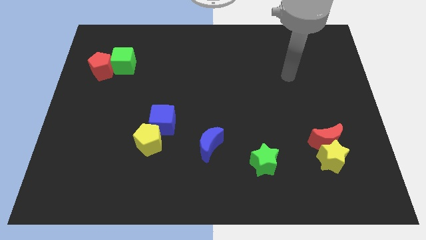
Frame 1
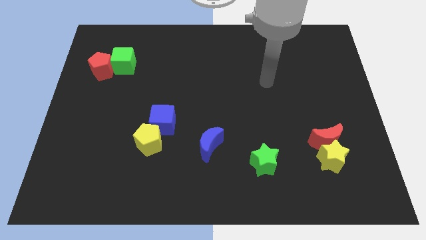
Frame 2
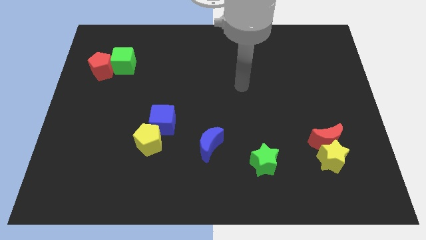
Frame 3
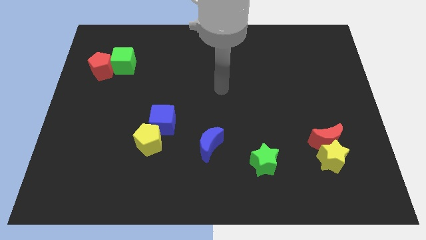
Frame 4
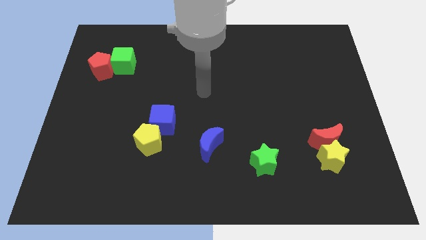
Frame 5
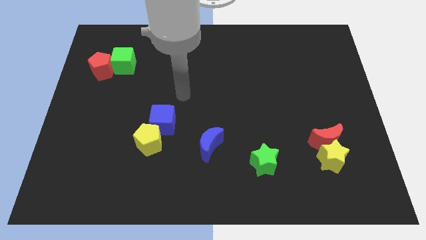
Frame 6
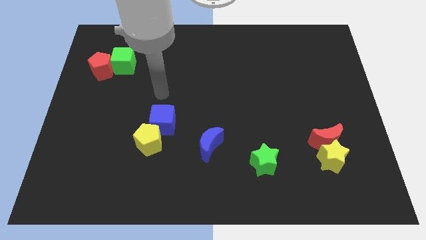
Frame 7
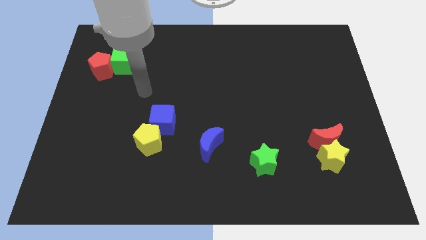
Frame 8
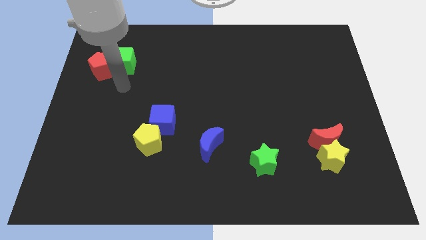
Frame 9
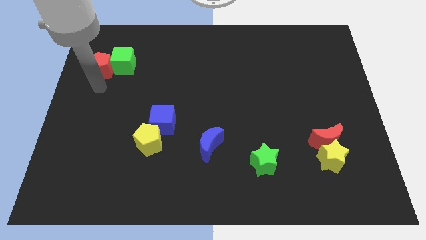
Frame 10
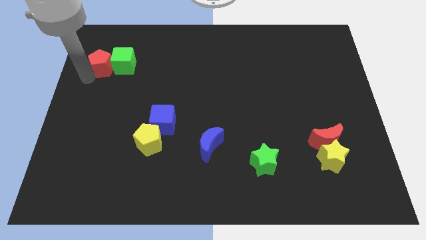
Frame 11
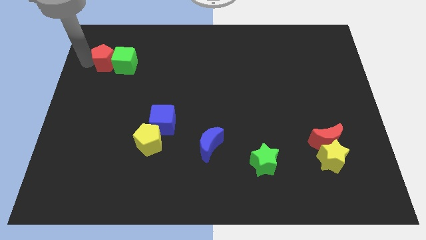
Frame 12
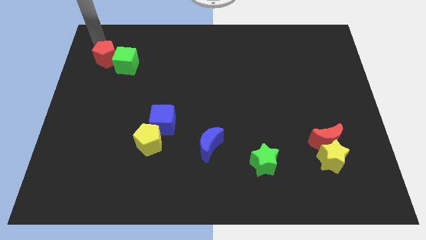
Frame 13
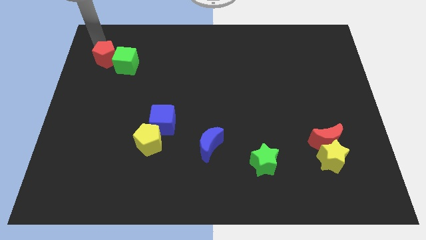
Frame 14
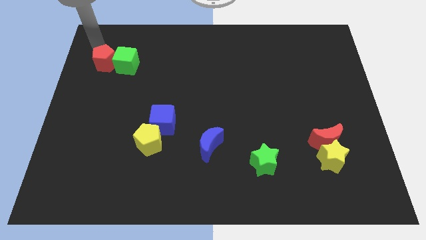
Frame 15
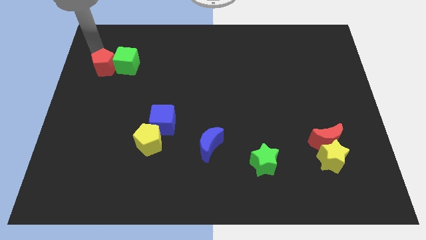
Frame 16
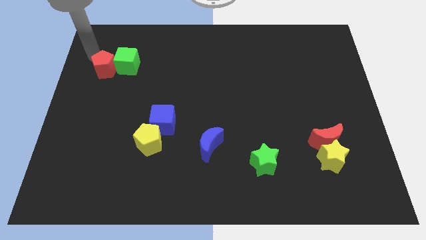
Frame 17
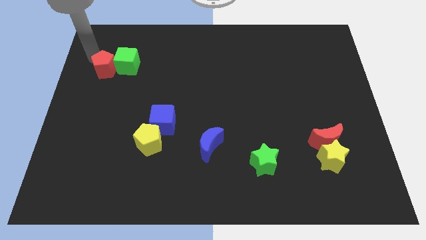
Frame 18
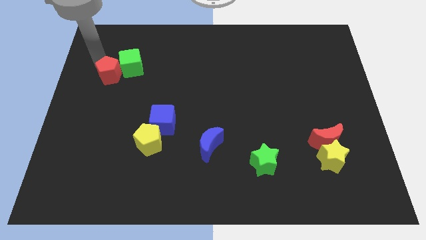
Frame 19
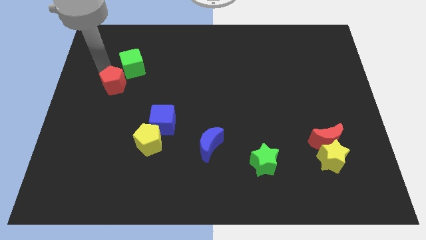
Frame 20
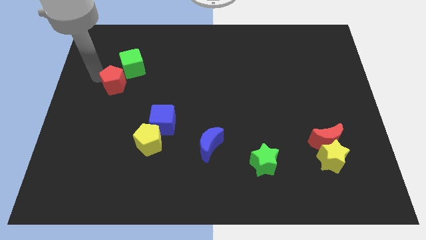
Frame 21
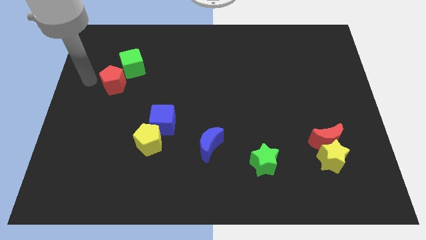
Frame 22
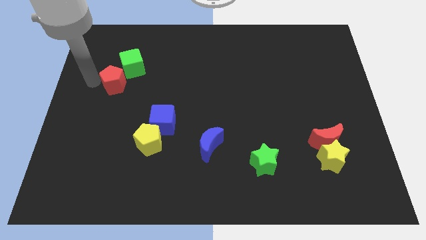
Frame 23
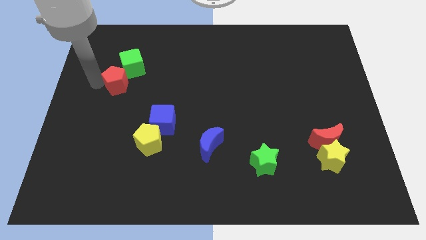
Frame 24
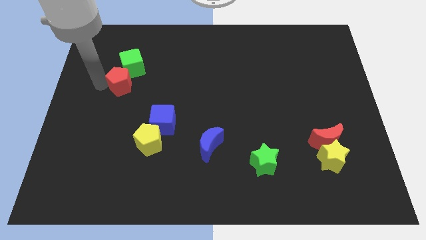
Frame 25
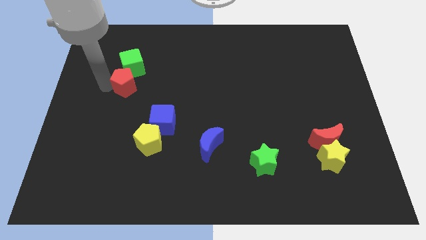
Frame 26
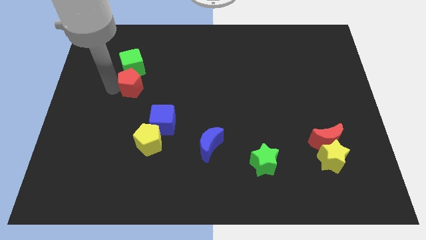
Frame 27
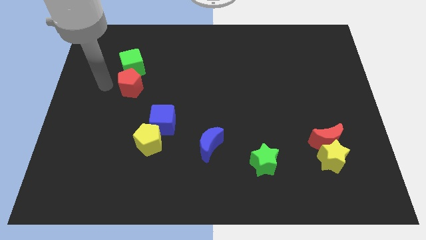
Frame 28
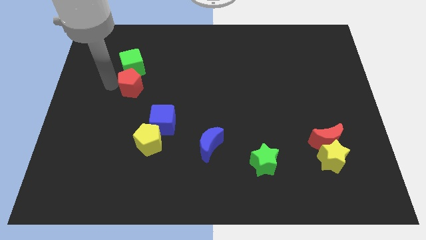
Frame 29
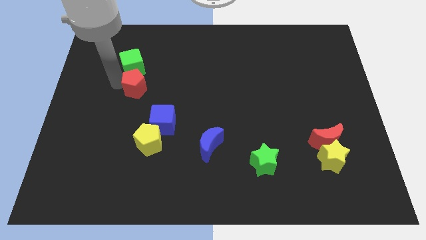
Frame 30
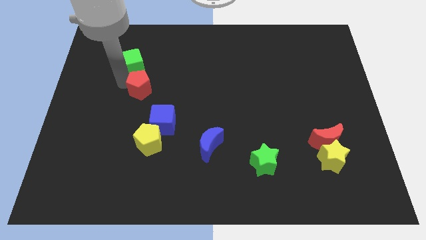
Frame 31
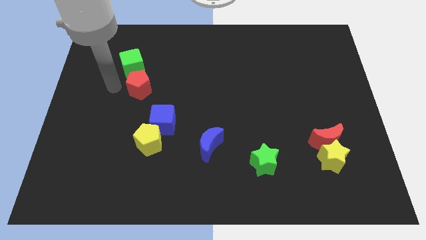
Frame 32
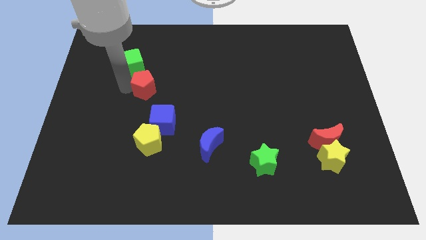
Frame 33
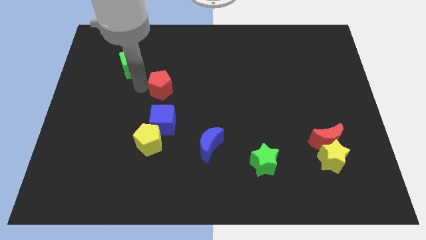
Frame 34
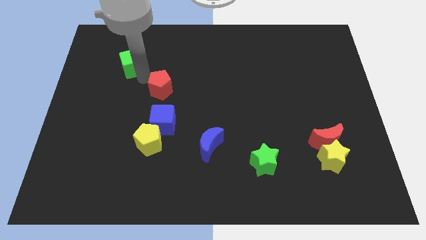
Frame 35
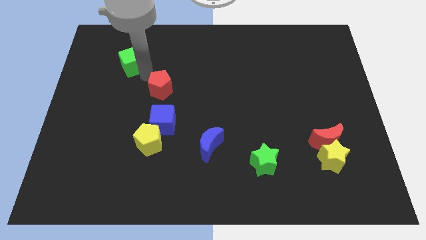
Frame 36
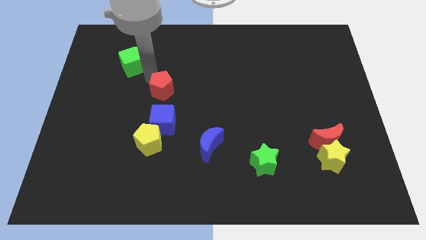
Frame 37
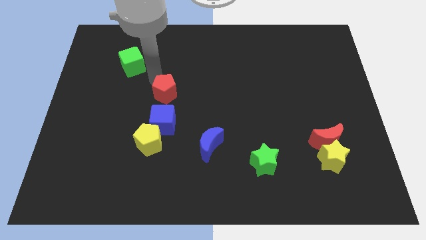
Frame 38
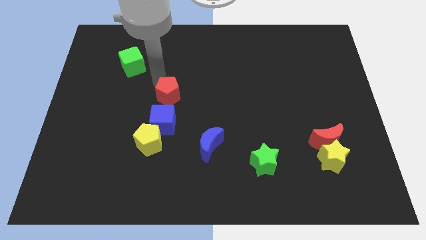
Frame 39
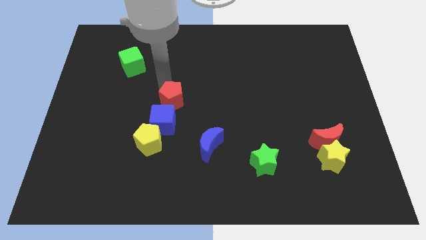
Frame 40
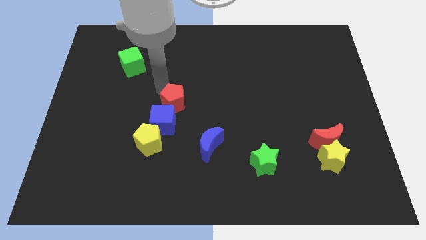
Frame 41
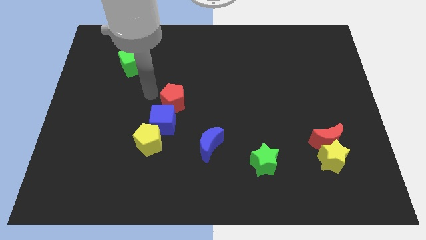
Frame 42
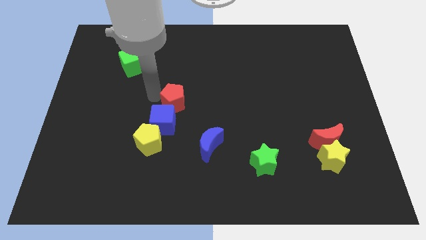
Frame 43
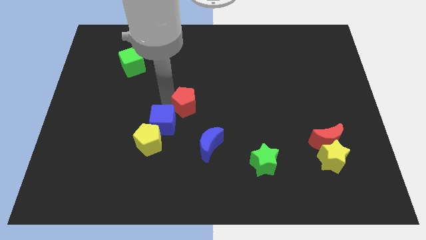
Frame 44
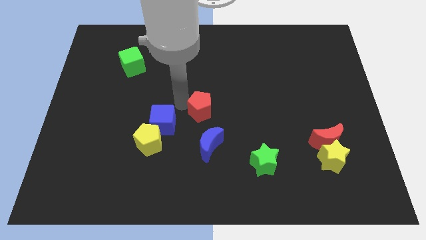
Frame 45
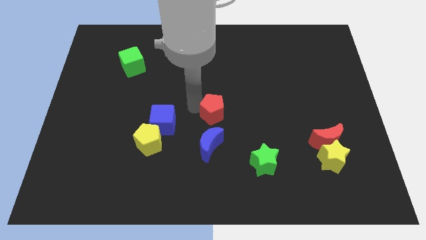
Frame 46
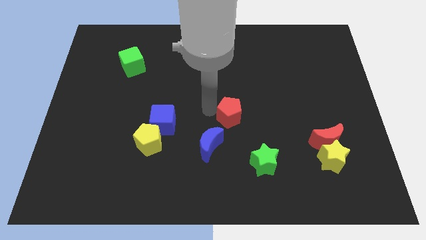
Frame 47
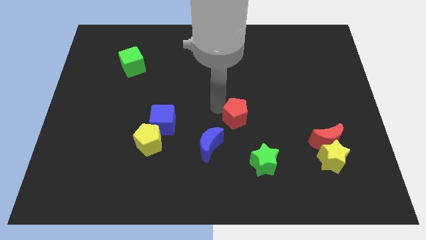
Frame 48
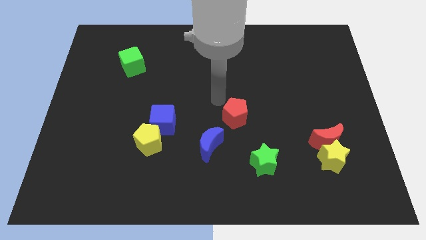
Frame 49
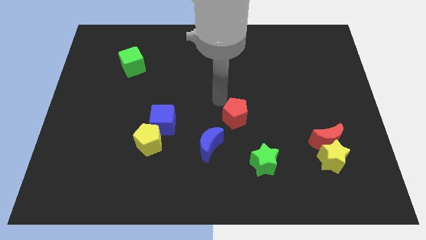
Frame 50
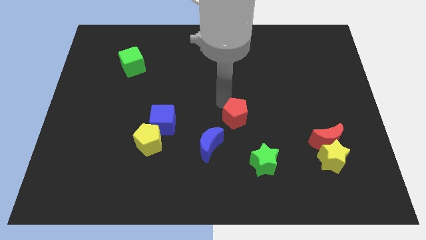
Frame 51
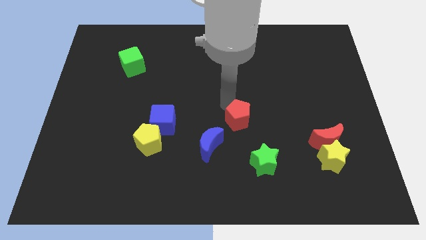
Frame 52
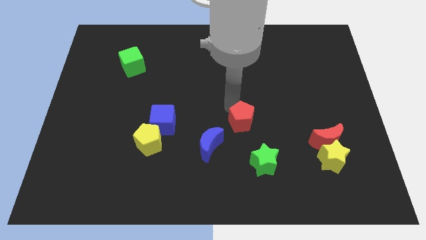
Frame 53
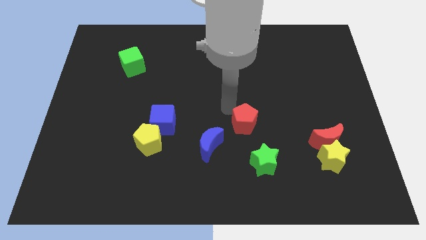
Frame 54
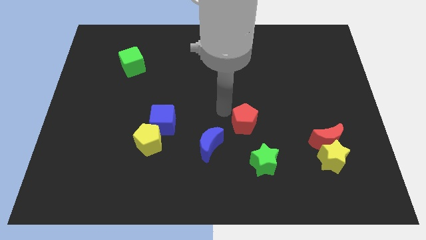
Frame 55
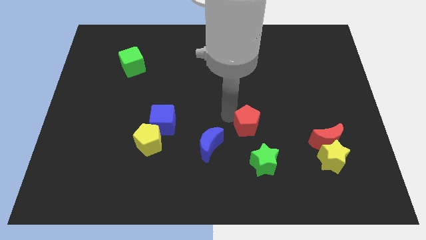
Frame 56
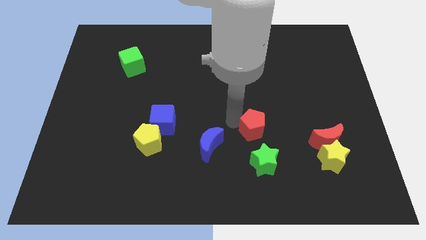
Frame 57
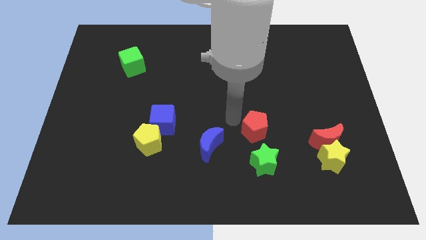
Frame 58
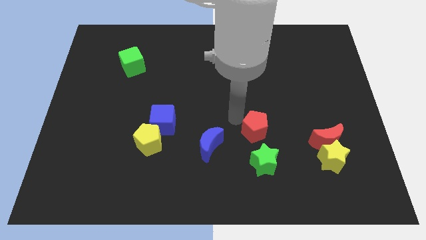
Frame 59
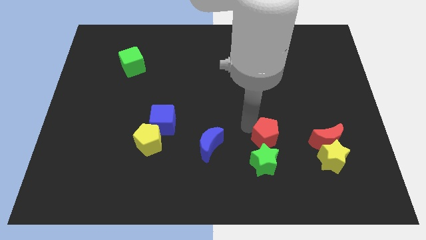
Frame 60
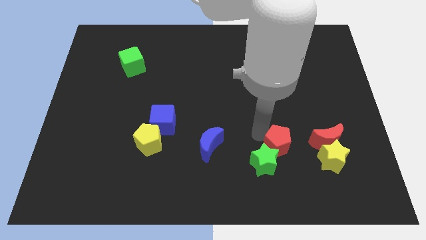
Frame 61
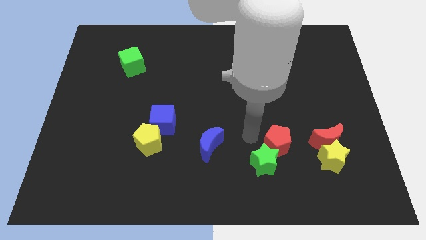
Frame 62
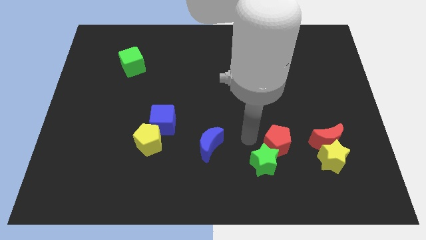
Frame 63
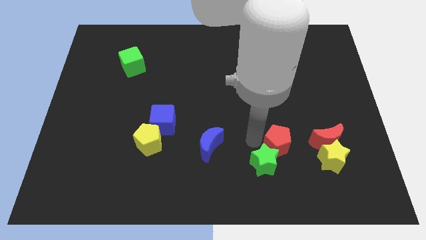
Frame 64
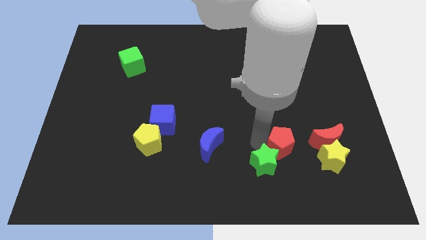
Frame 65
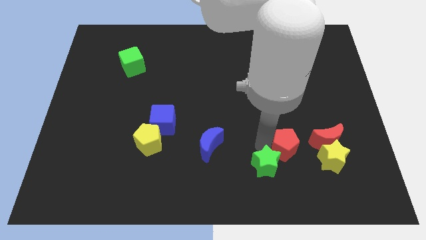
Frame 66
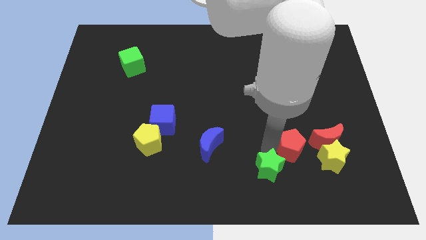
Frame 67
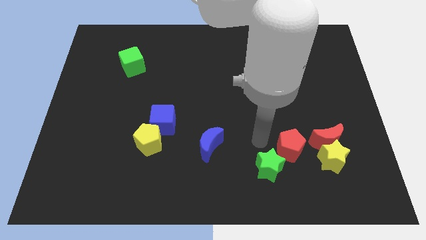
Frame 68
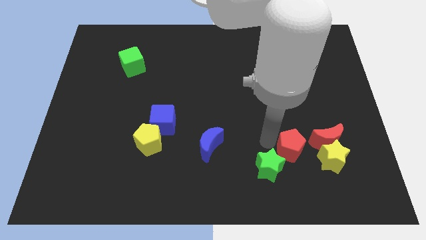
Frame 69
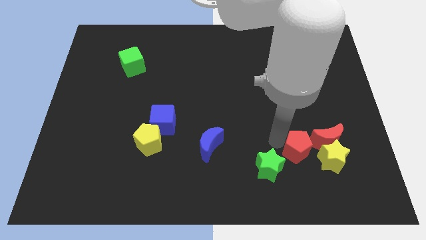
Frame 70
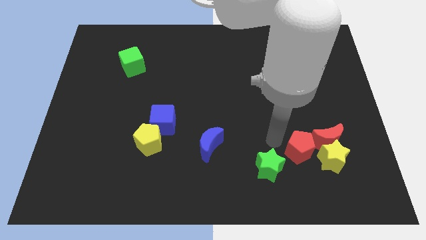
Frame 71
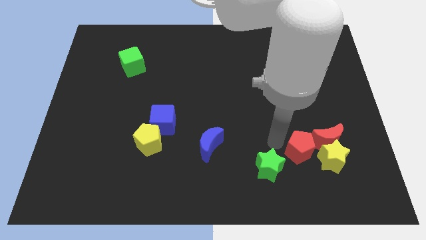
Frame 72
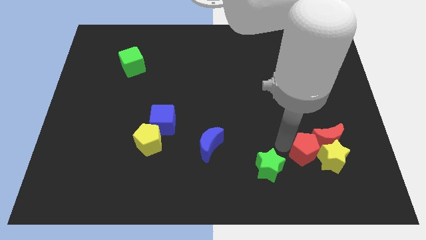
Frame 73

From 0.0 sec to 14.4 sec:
push the red pentagon to the yellow star

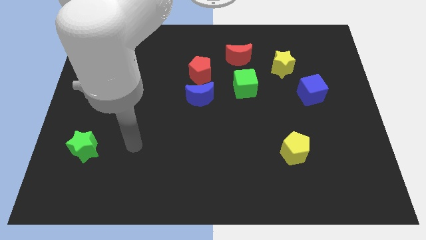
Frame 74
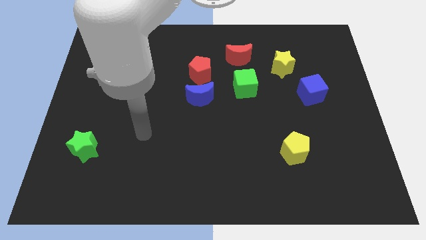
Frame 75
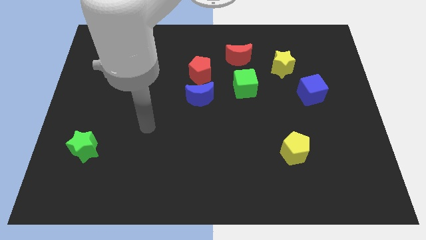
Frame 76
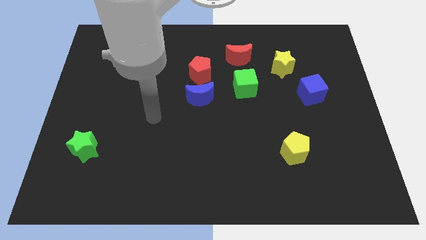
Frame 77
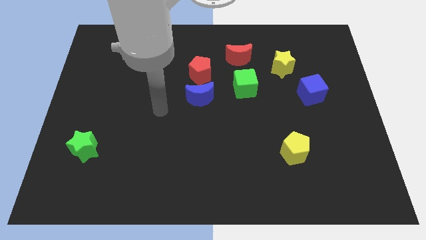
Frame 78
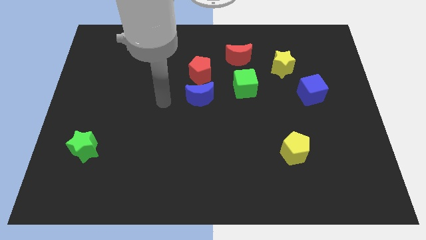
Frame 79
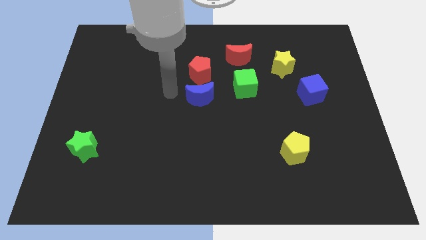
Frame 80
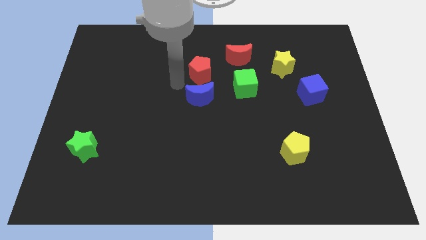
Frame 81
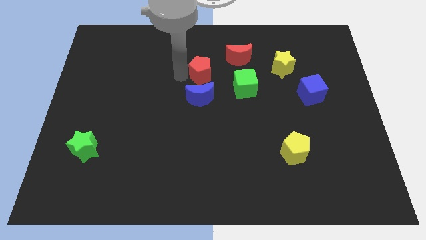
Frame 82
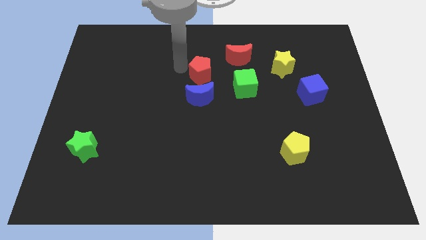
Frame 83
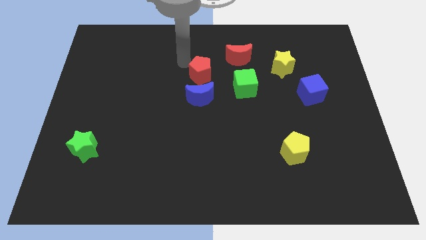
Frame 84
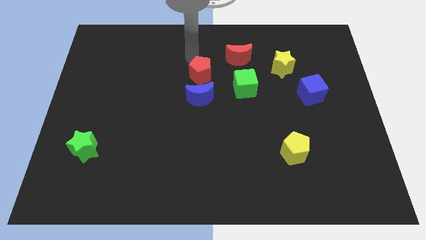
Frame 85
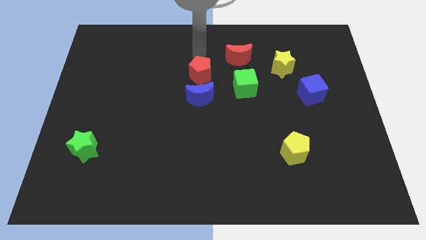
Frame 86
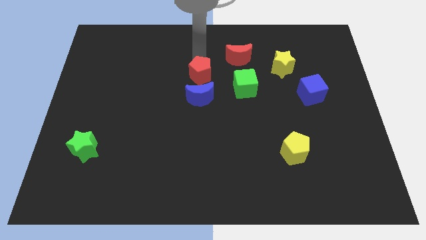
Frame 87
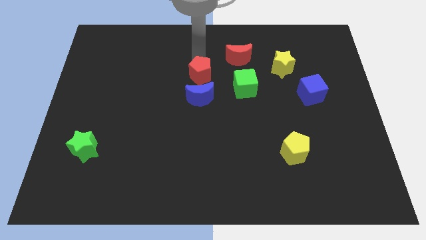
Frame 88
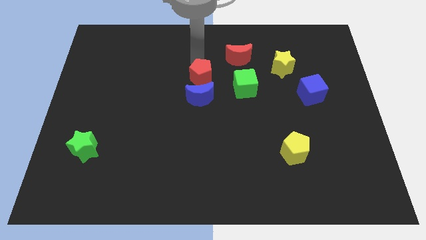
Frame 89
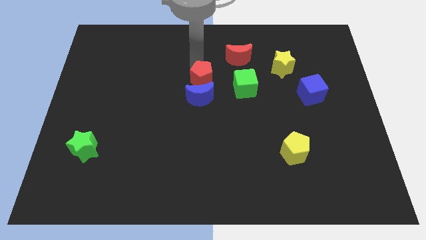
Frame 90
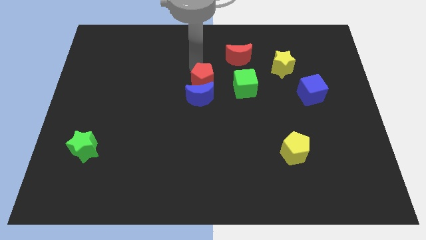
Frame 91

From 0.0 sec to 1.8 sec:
move the red pentagon close to the blue moon
